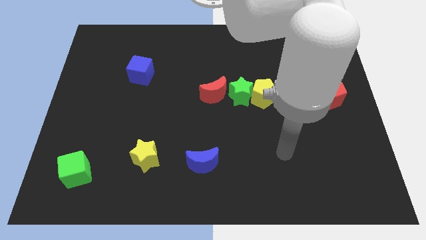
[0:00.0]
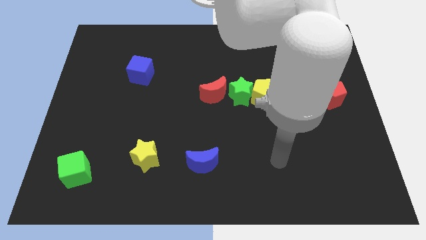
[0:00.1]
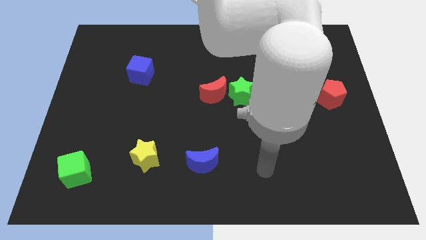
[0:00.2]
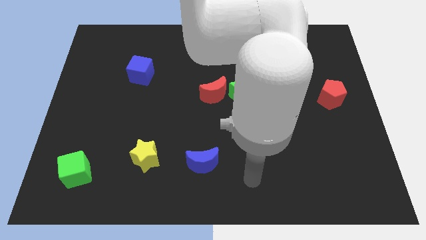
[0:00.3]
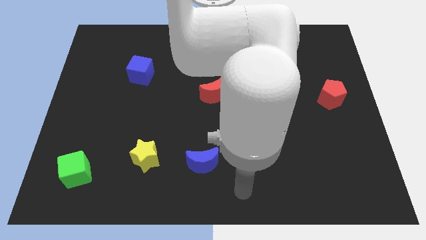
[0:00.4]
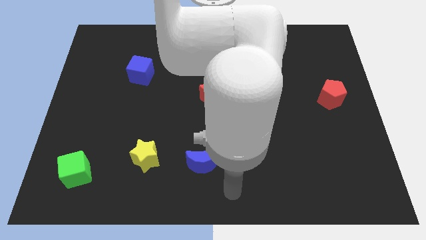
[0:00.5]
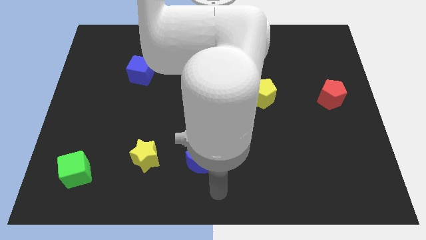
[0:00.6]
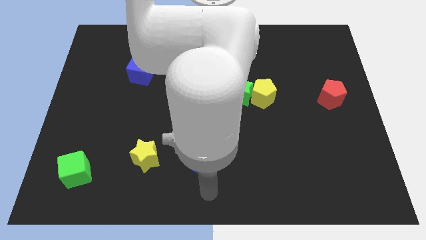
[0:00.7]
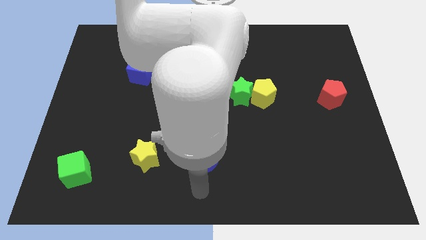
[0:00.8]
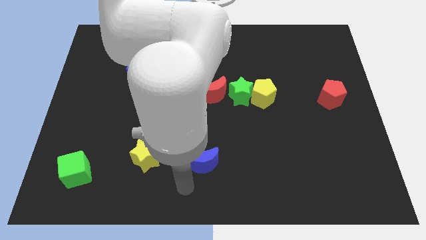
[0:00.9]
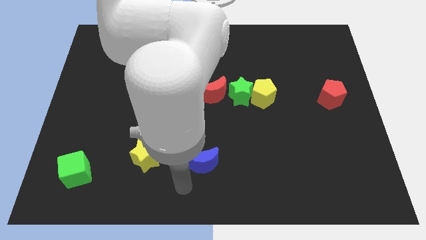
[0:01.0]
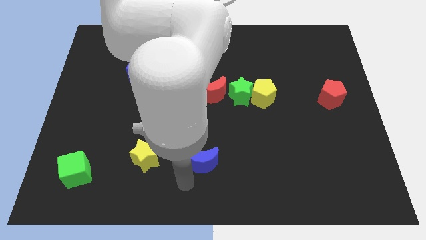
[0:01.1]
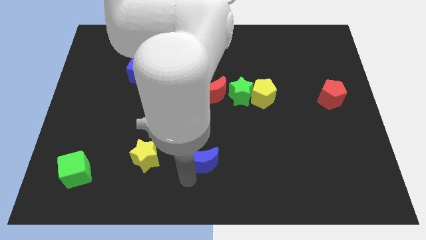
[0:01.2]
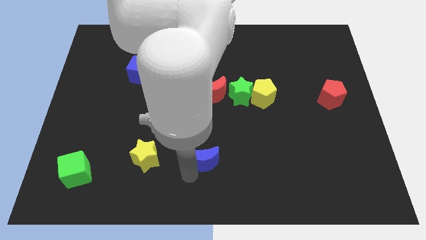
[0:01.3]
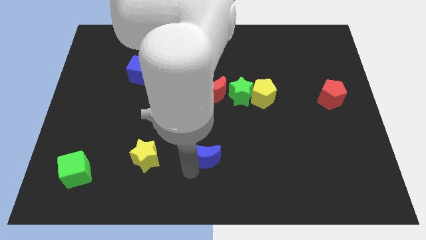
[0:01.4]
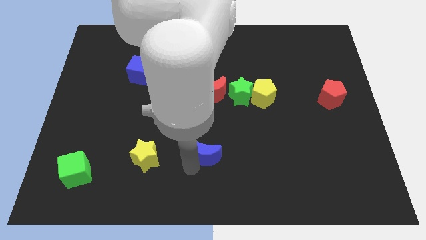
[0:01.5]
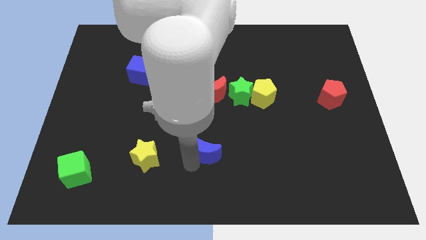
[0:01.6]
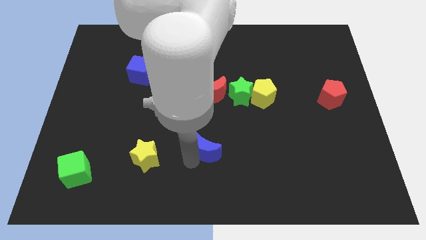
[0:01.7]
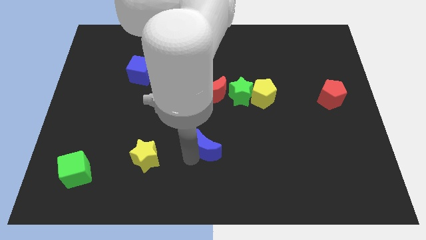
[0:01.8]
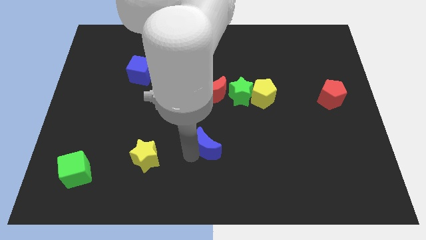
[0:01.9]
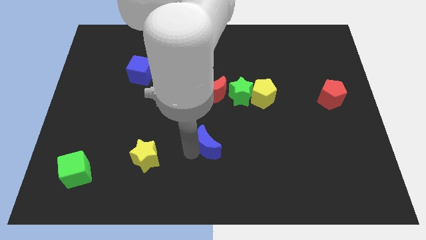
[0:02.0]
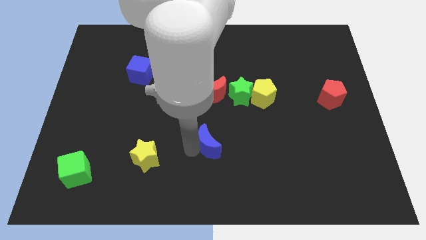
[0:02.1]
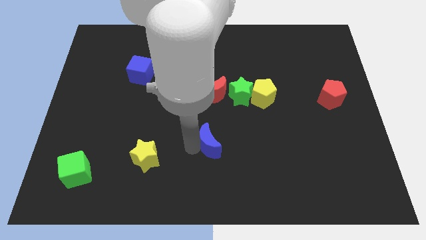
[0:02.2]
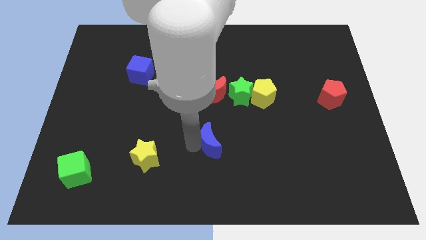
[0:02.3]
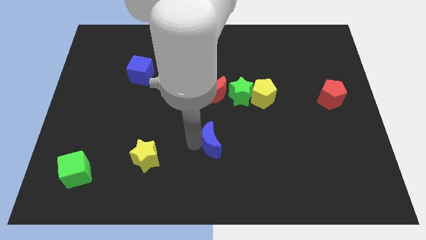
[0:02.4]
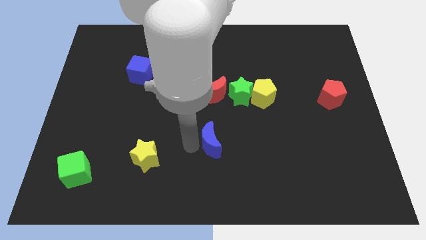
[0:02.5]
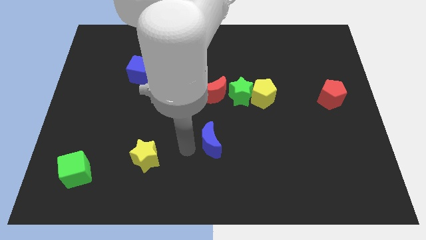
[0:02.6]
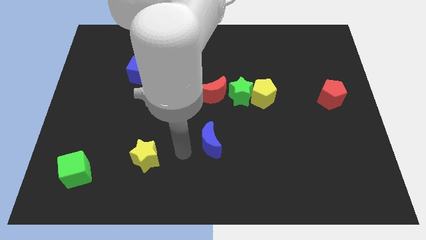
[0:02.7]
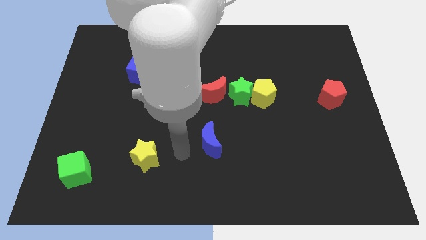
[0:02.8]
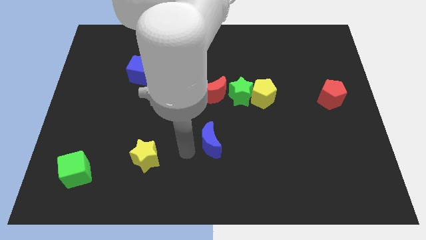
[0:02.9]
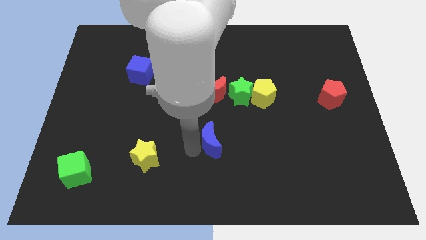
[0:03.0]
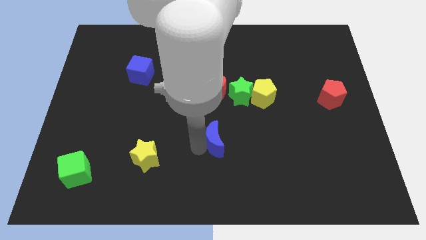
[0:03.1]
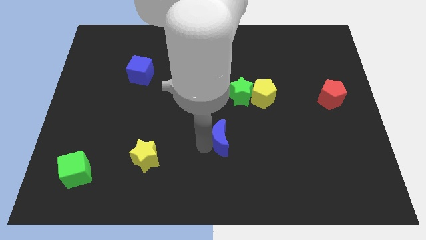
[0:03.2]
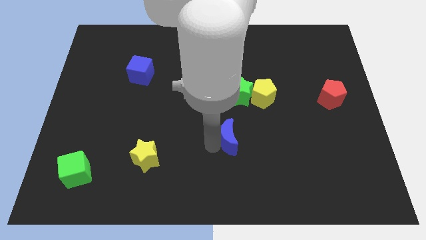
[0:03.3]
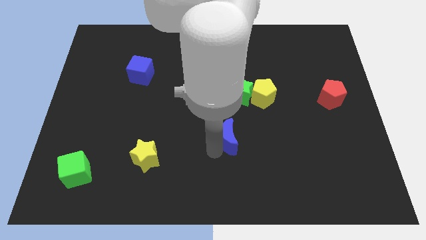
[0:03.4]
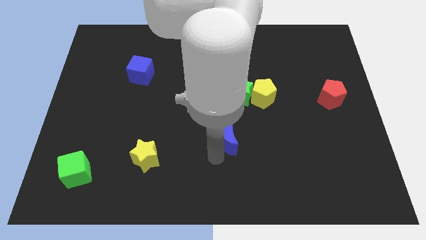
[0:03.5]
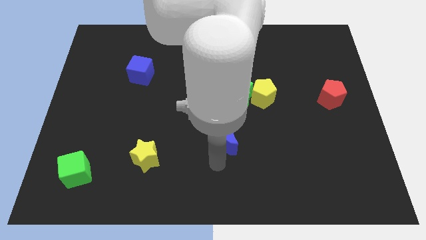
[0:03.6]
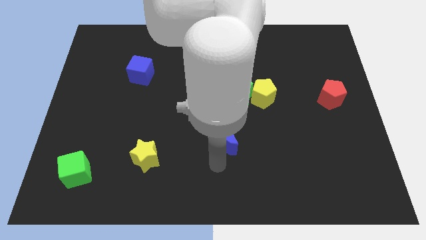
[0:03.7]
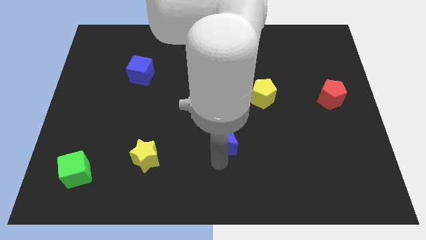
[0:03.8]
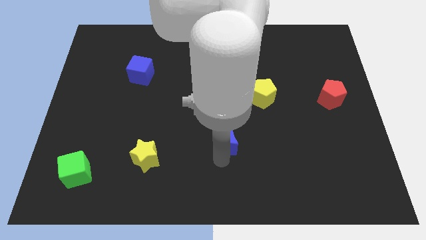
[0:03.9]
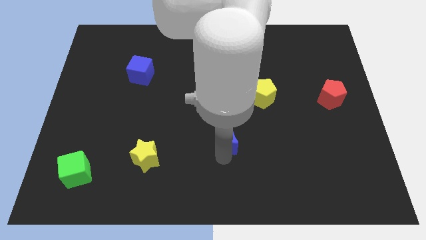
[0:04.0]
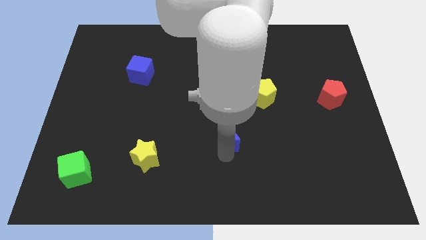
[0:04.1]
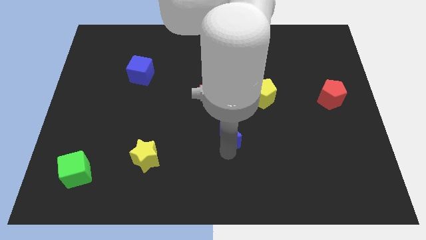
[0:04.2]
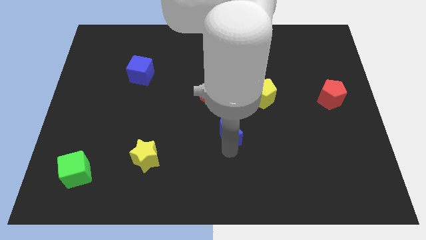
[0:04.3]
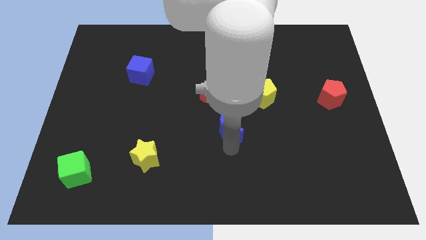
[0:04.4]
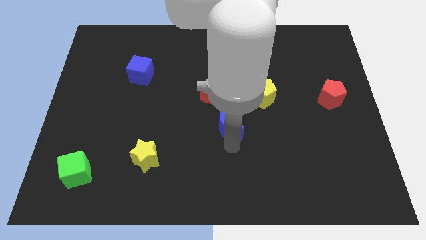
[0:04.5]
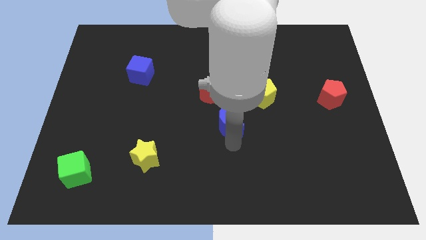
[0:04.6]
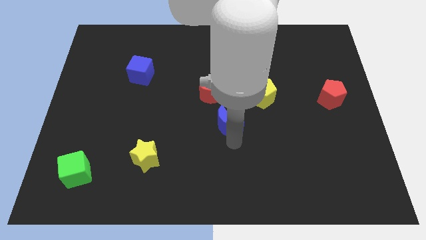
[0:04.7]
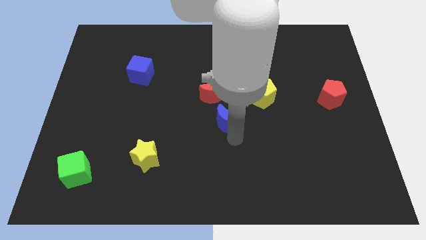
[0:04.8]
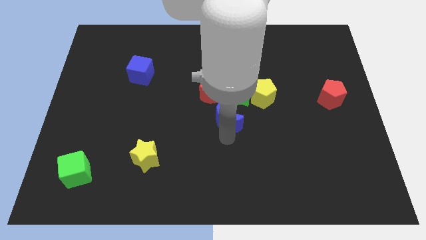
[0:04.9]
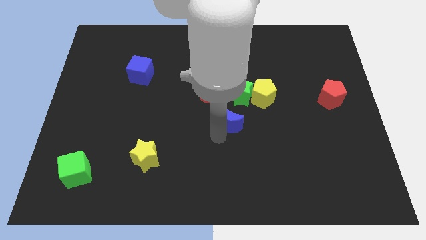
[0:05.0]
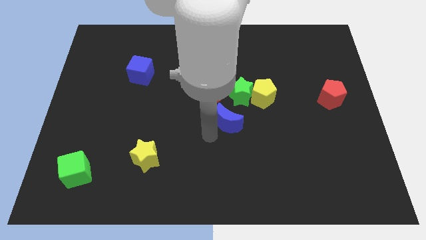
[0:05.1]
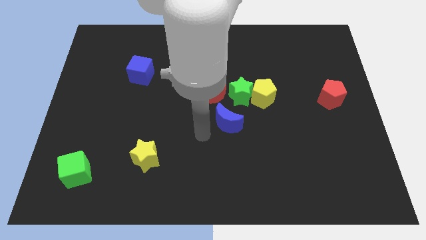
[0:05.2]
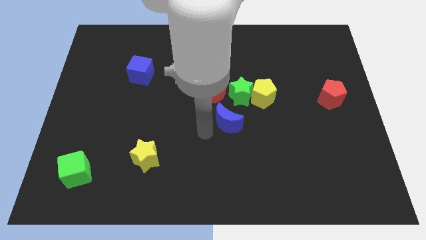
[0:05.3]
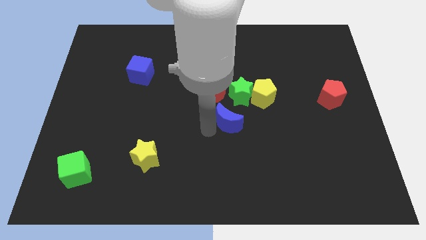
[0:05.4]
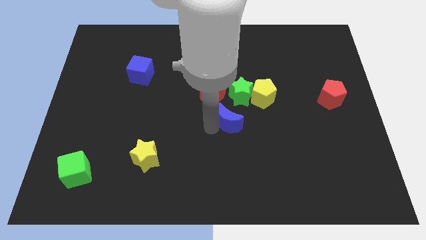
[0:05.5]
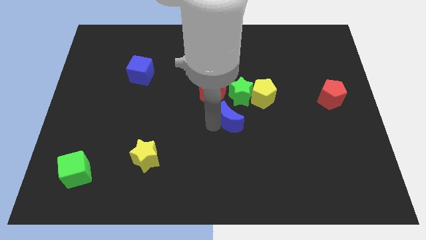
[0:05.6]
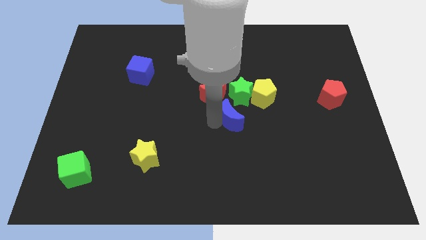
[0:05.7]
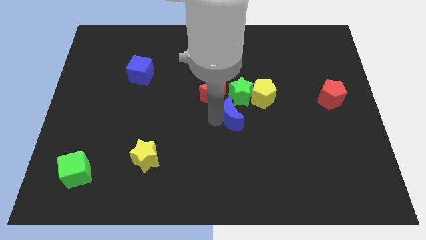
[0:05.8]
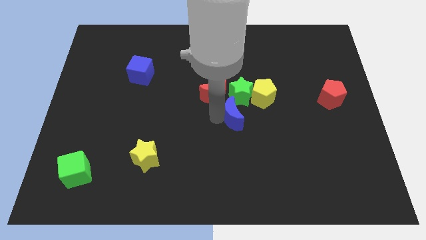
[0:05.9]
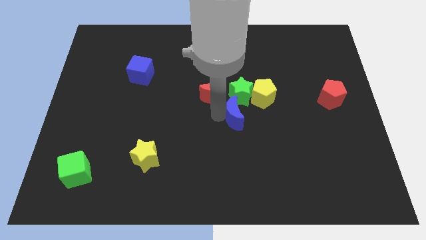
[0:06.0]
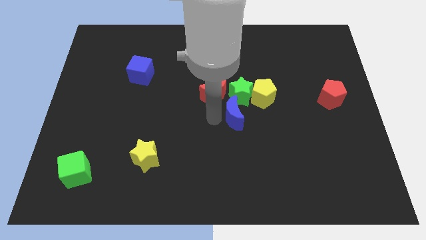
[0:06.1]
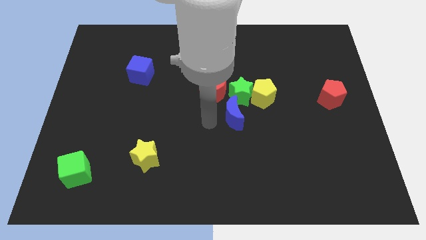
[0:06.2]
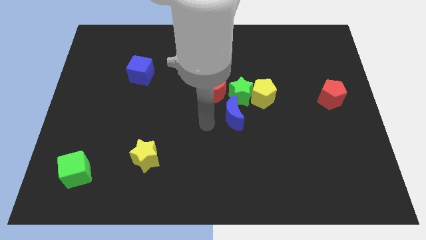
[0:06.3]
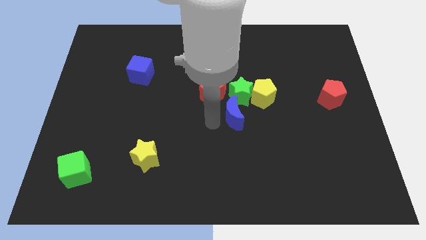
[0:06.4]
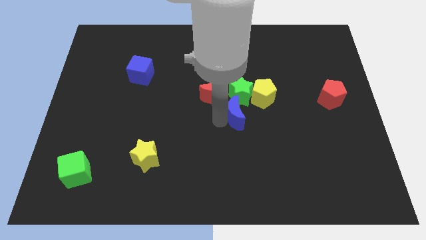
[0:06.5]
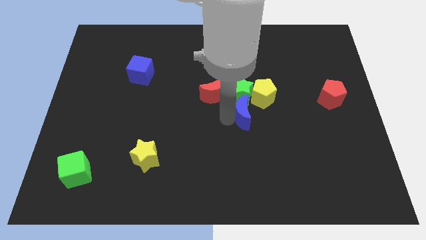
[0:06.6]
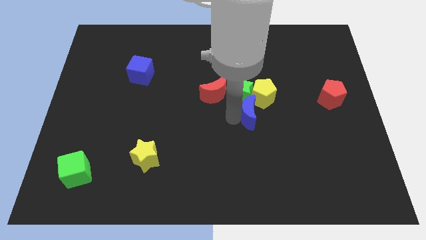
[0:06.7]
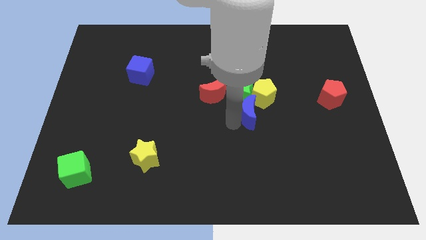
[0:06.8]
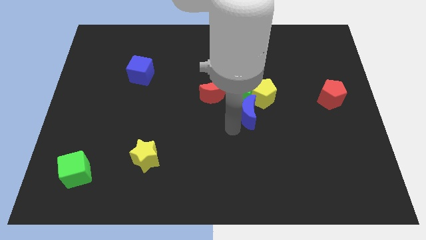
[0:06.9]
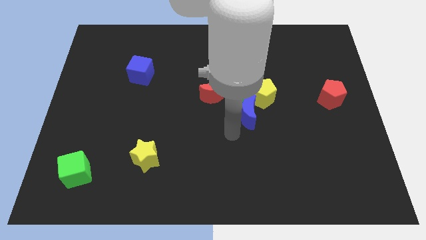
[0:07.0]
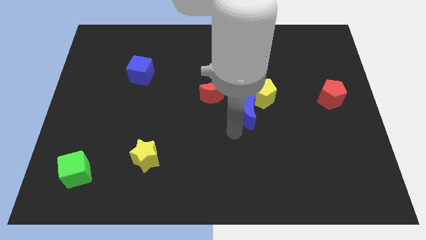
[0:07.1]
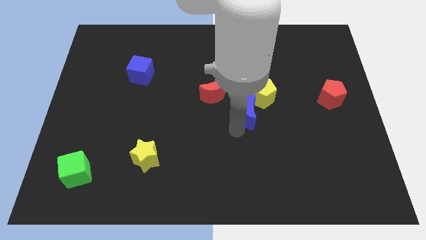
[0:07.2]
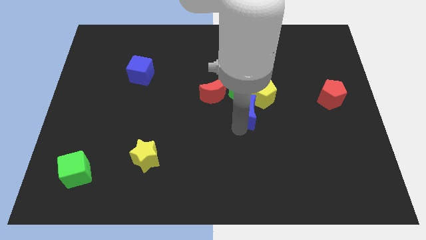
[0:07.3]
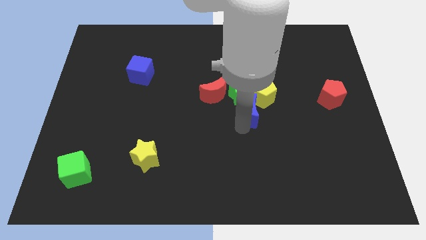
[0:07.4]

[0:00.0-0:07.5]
put the blue moon close to the yellow pentagon
